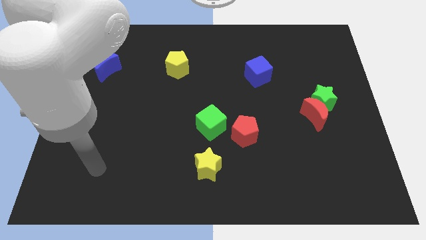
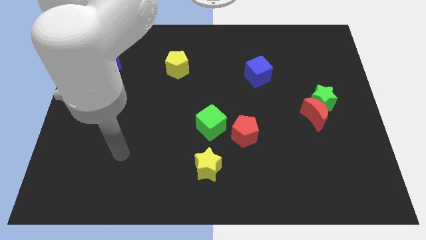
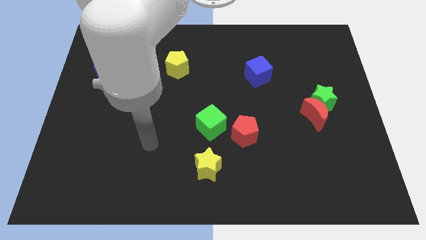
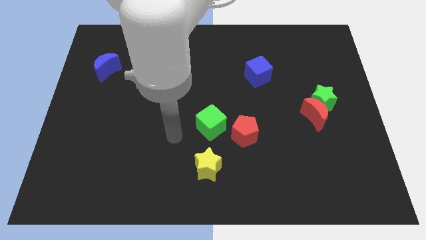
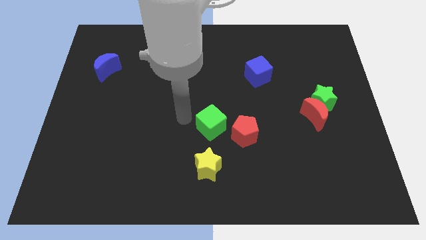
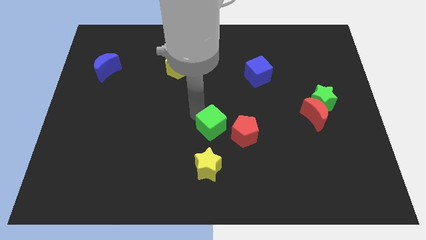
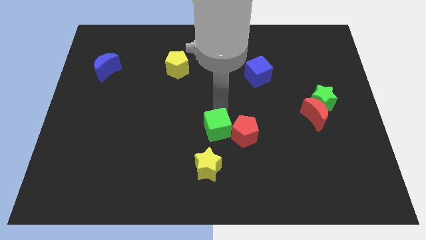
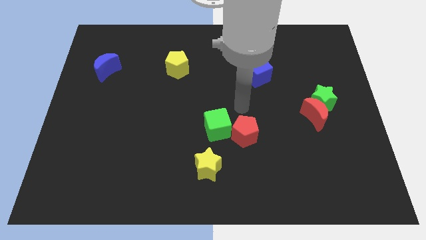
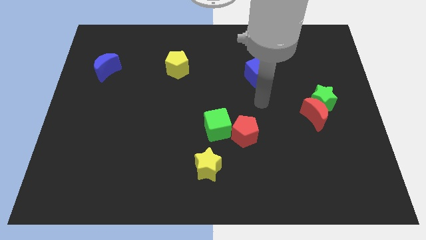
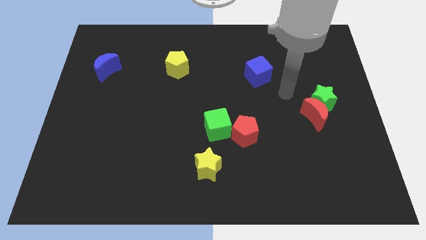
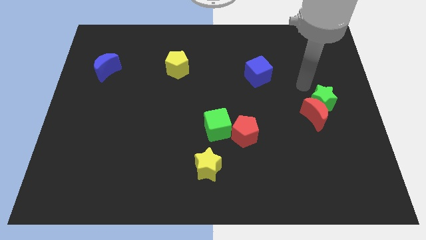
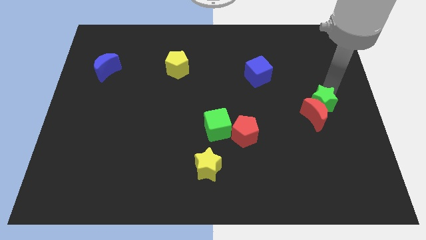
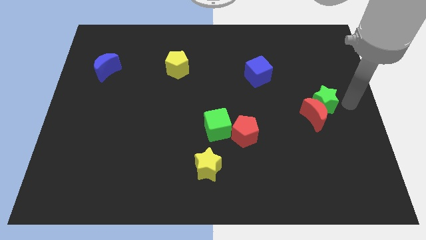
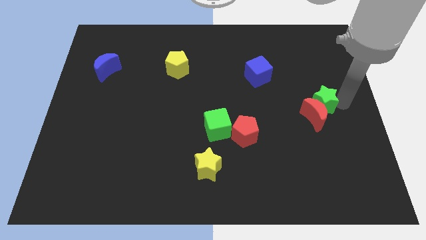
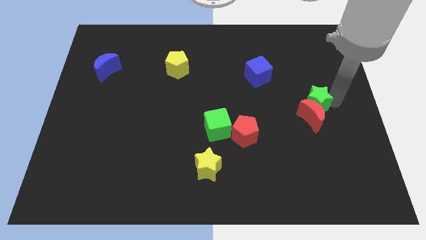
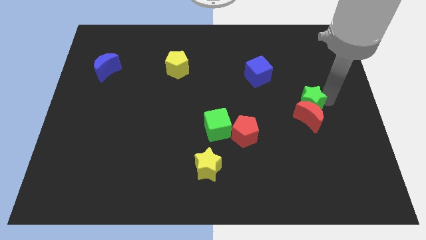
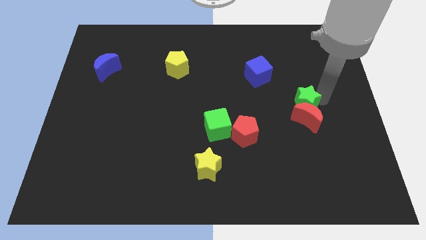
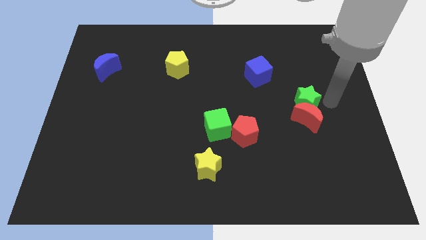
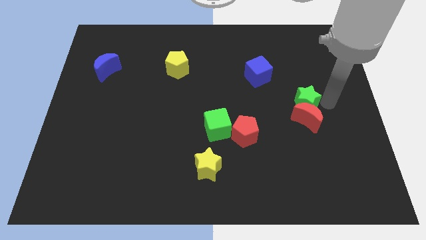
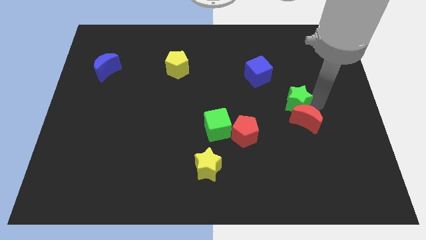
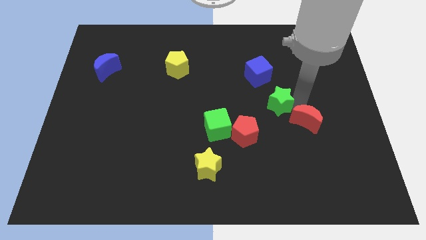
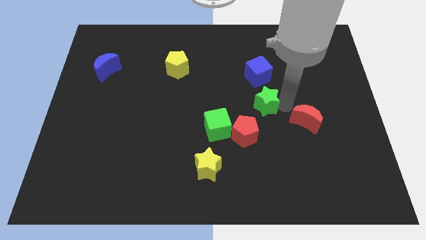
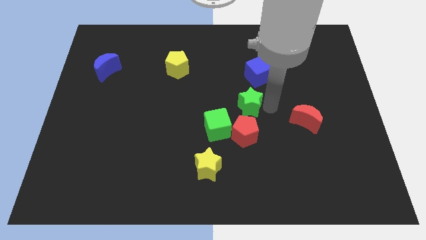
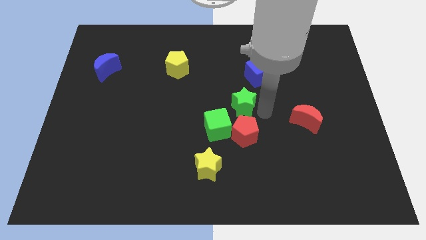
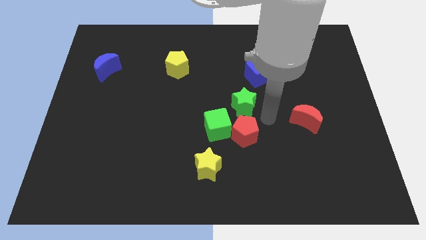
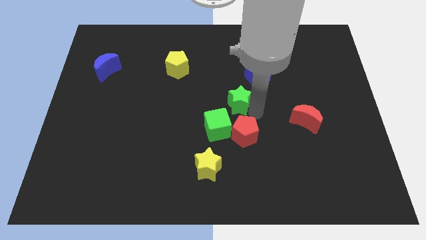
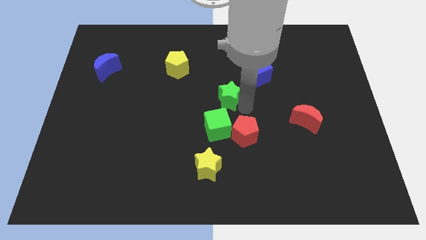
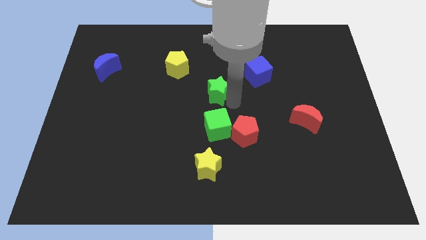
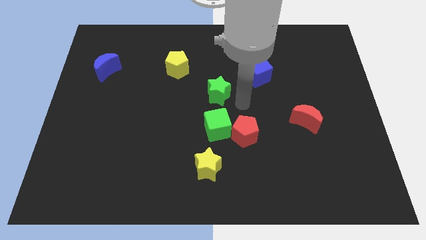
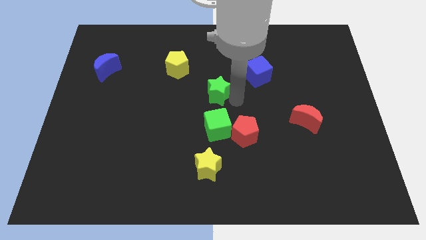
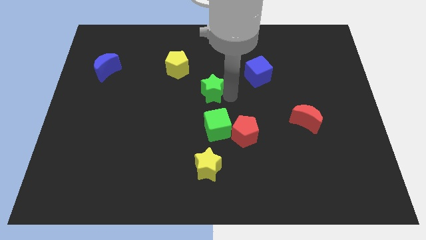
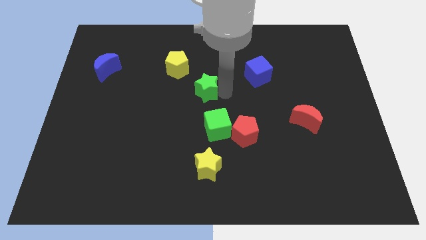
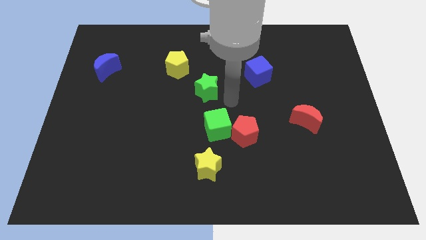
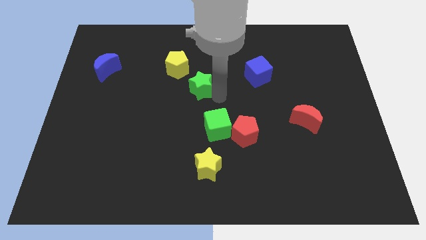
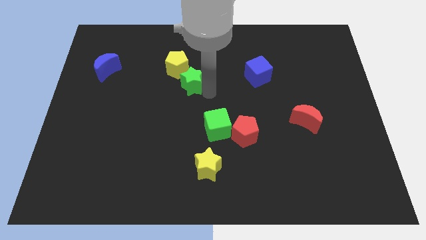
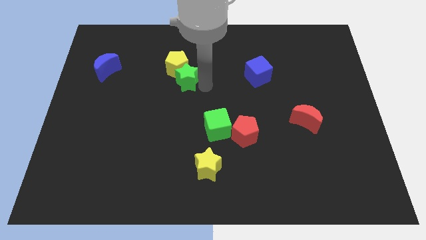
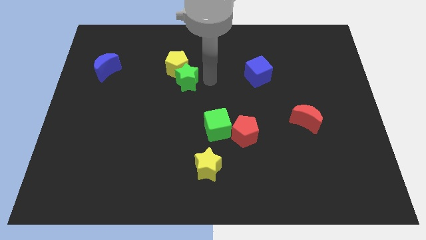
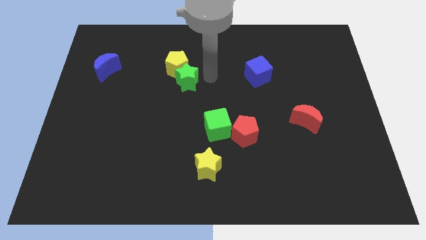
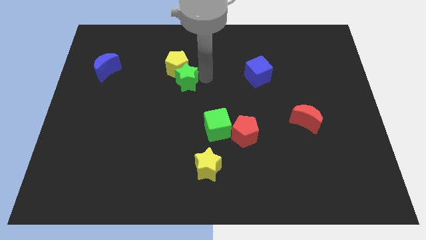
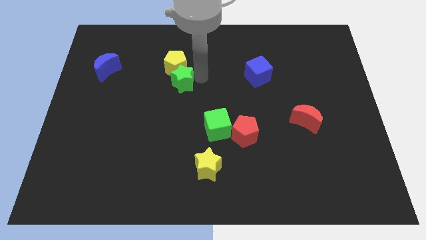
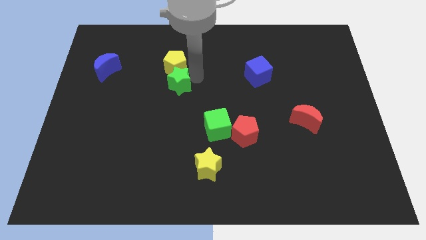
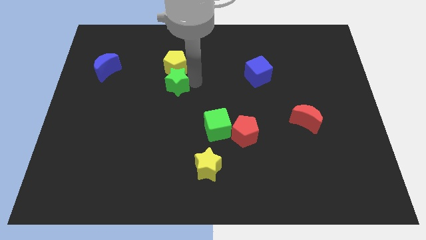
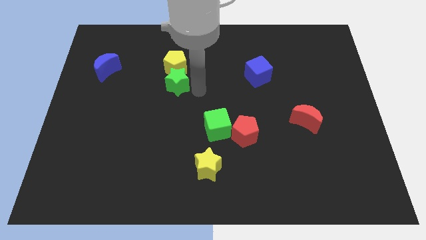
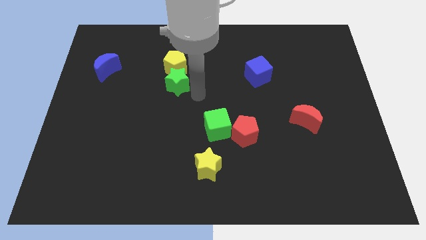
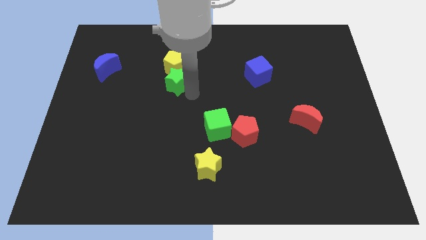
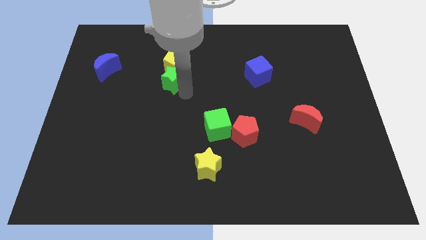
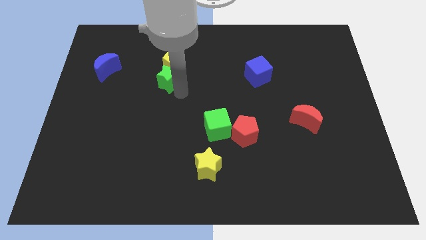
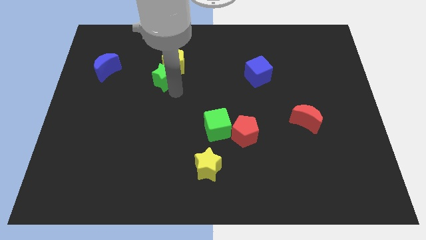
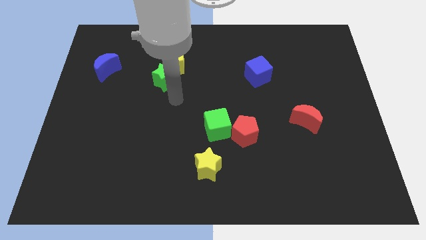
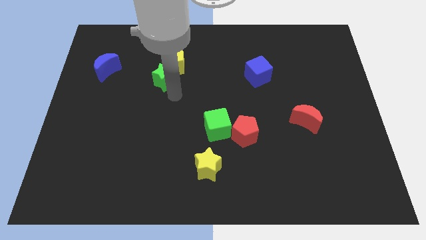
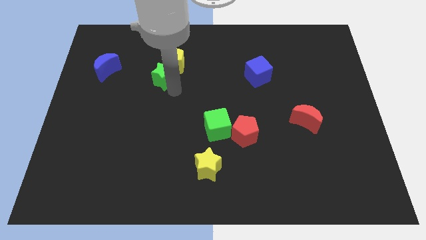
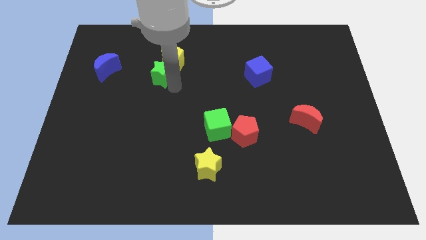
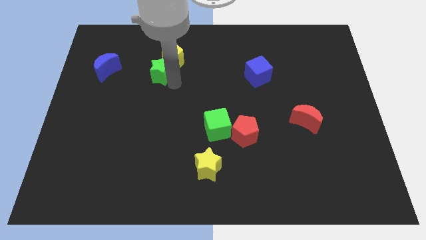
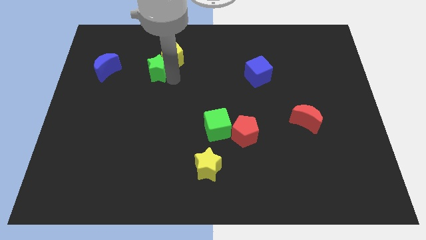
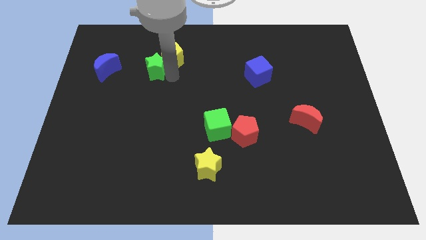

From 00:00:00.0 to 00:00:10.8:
slide the green star to the left of the yellow pentagon

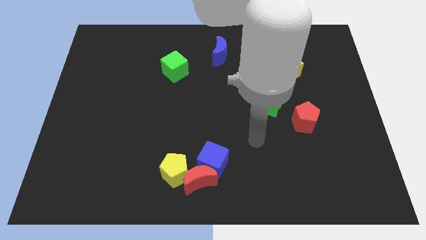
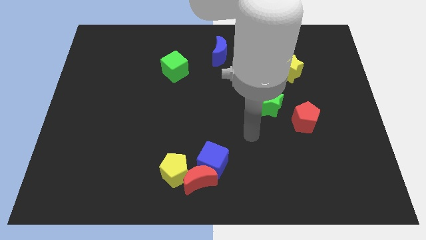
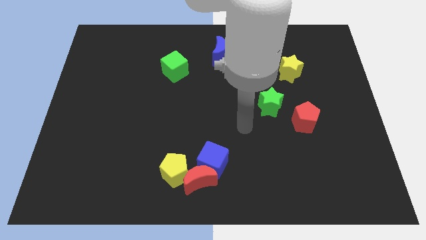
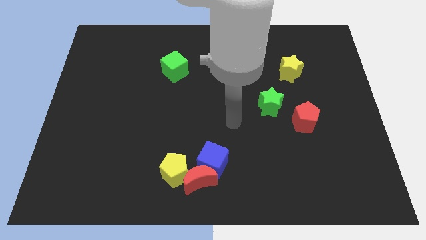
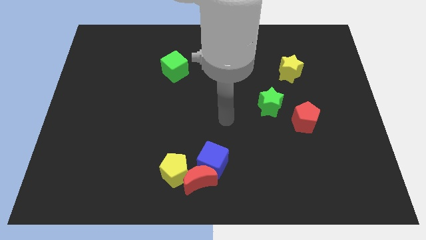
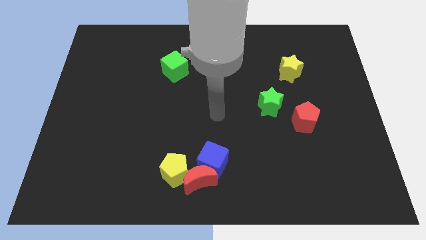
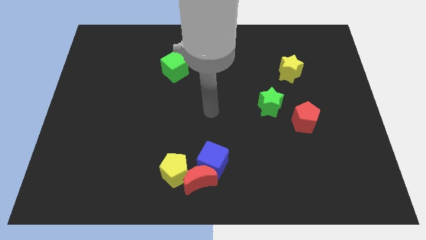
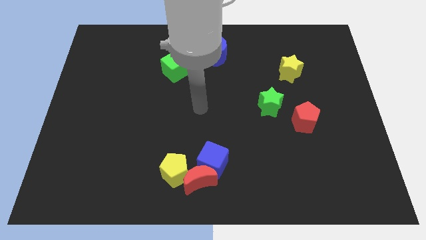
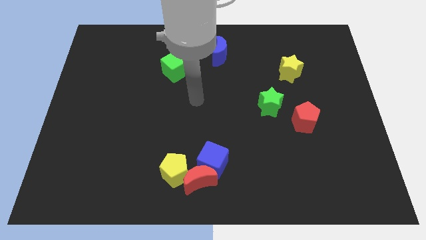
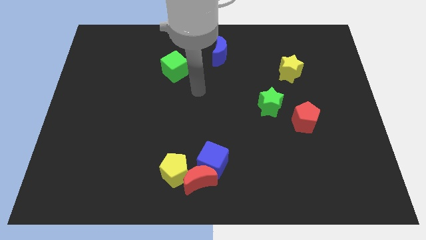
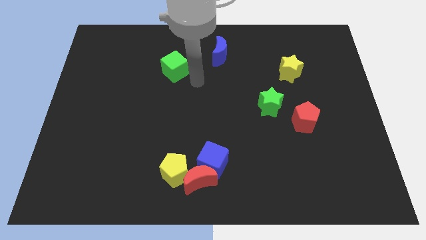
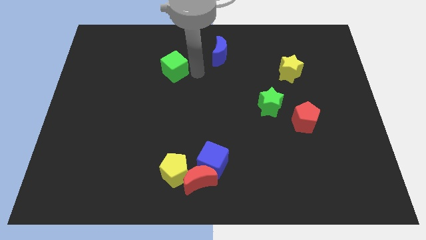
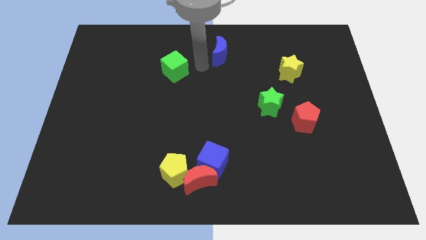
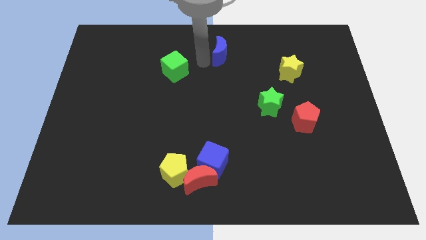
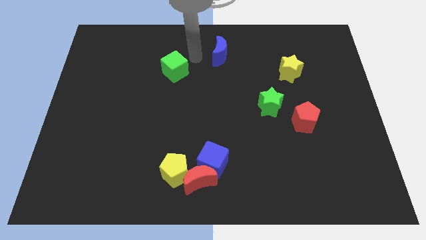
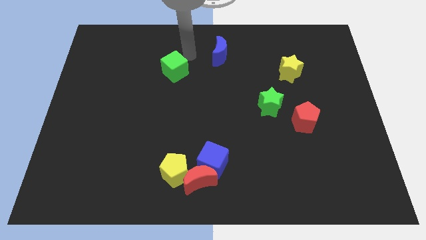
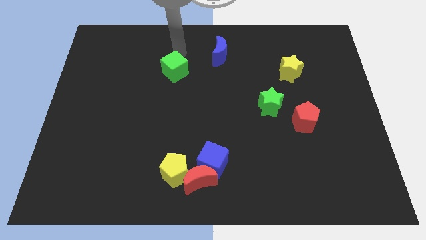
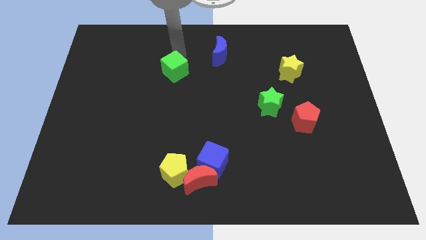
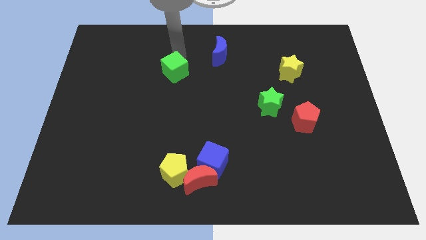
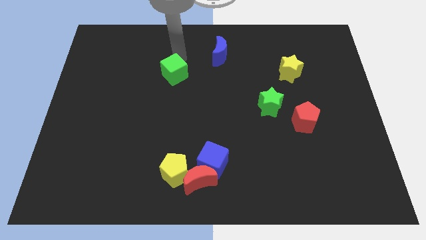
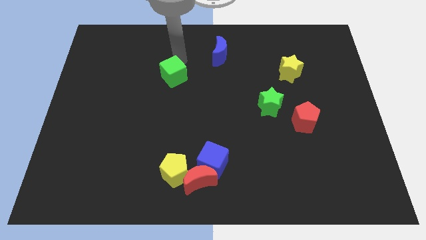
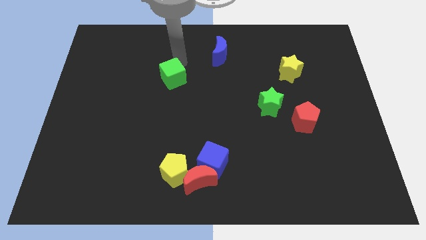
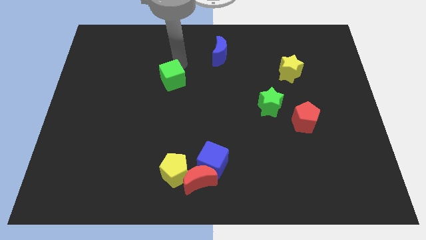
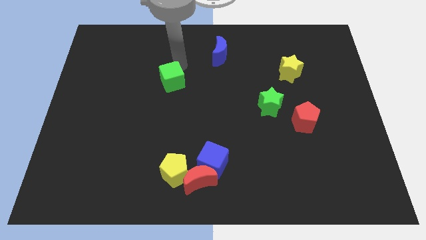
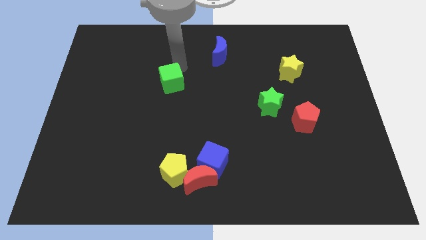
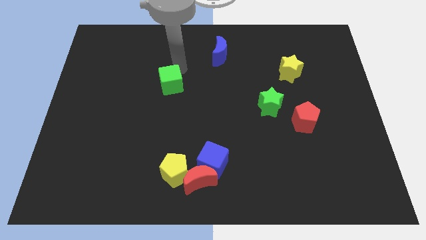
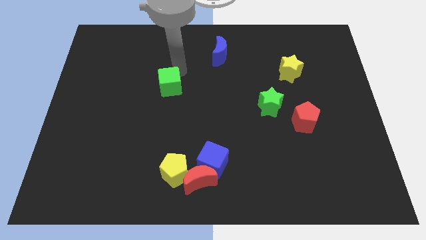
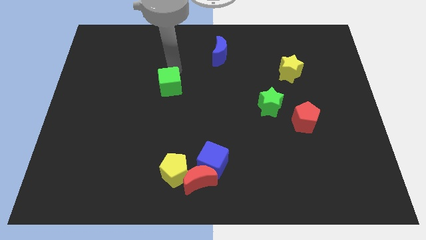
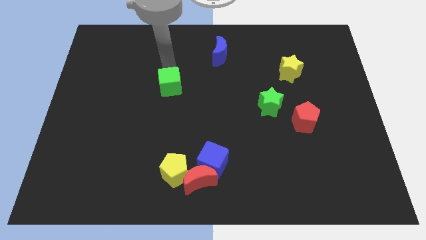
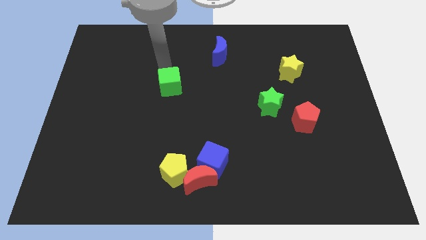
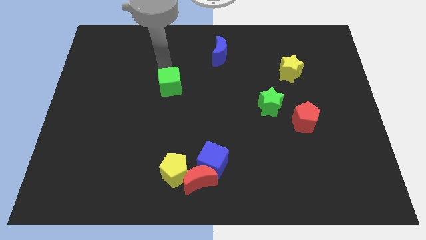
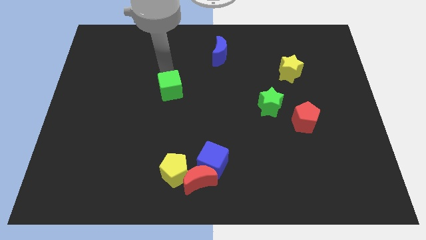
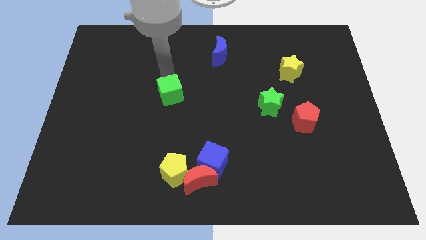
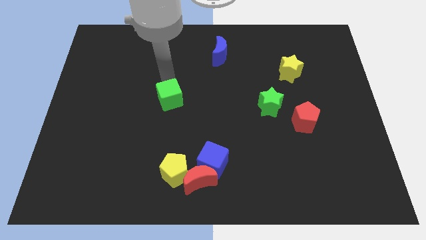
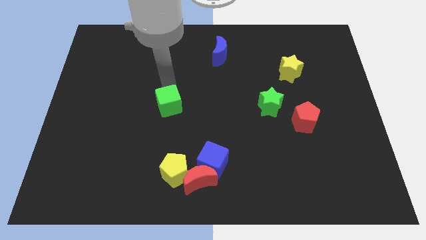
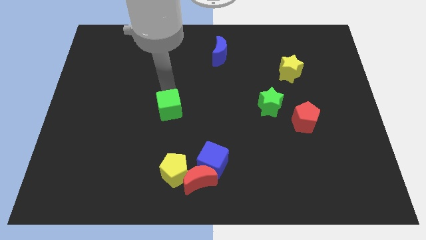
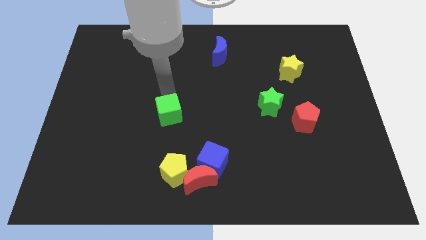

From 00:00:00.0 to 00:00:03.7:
put the green cube to the top side of the yellow pentagon
